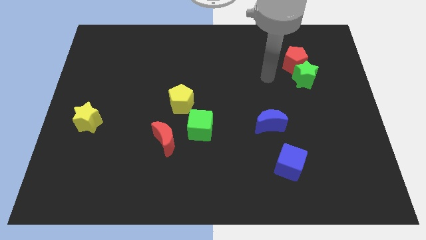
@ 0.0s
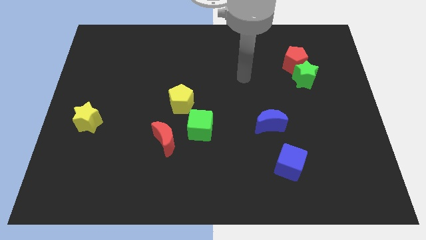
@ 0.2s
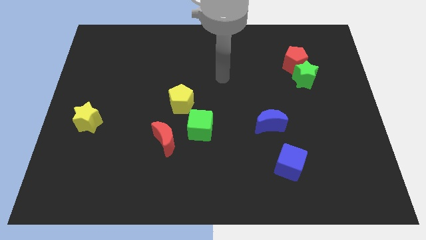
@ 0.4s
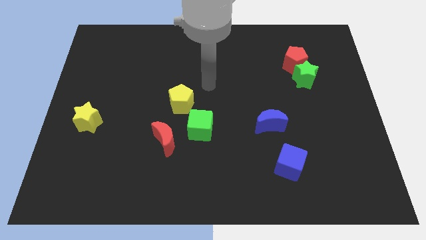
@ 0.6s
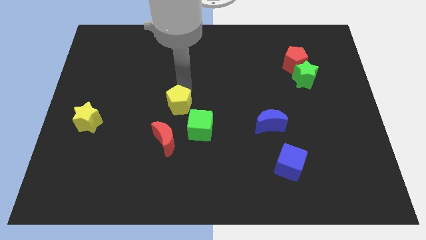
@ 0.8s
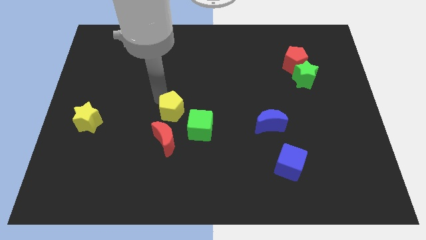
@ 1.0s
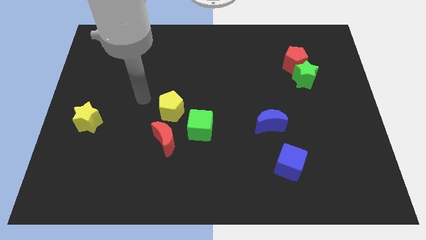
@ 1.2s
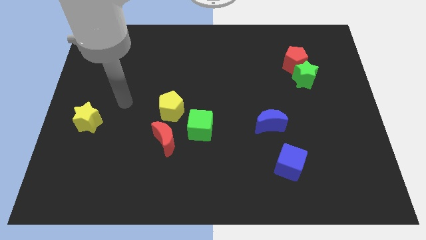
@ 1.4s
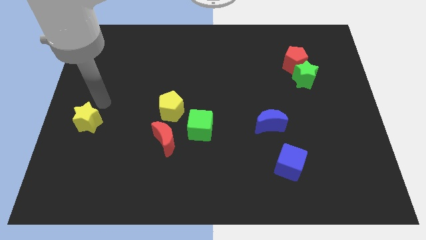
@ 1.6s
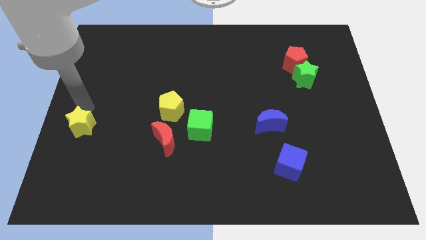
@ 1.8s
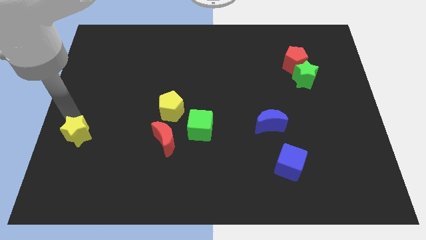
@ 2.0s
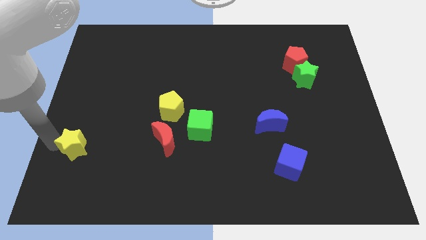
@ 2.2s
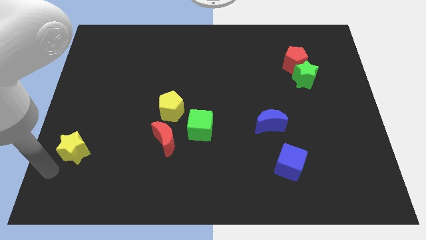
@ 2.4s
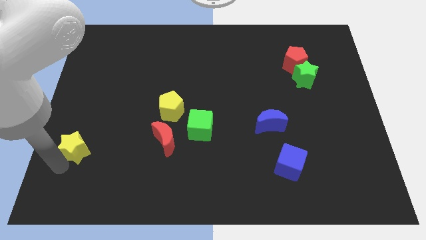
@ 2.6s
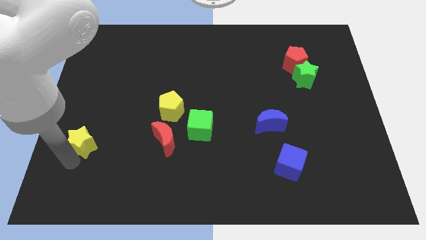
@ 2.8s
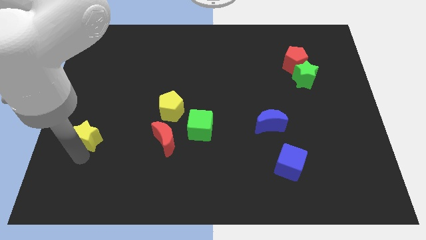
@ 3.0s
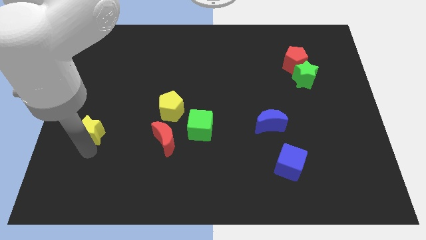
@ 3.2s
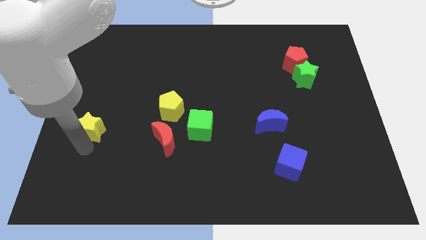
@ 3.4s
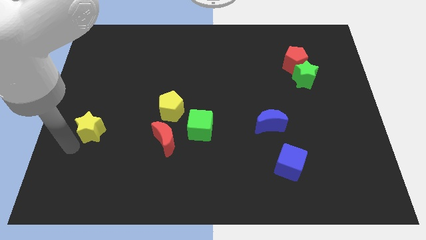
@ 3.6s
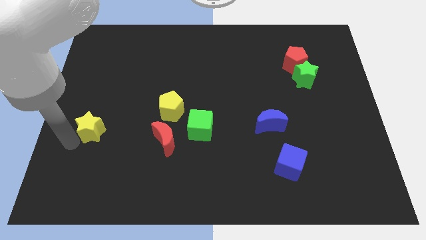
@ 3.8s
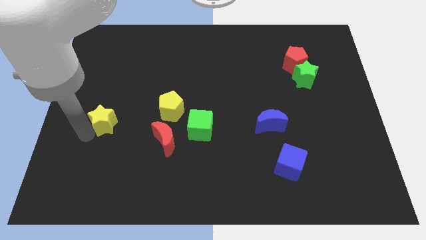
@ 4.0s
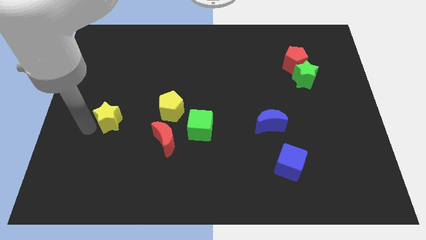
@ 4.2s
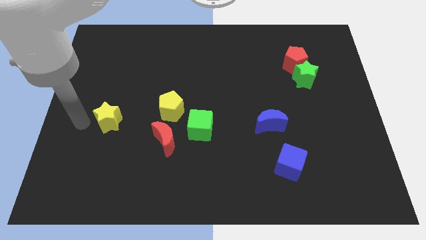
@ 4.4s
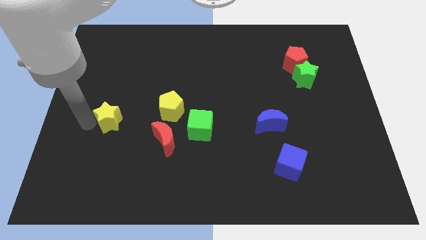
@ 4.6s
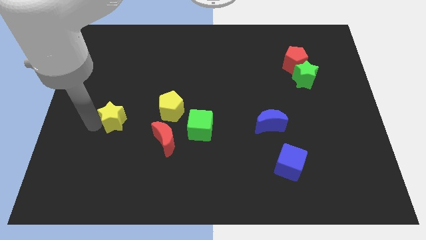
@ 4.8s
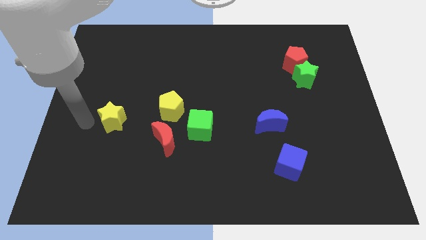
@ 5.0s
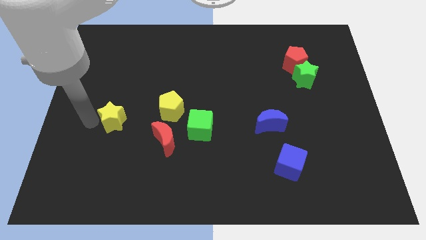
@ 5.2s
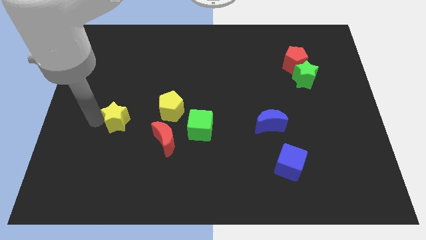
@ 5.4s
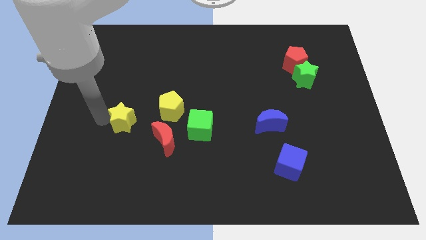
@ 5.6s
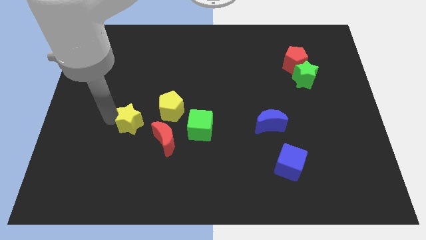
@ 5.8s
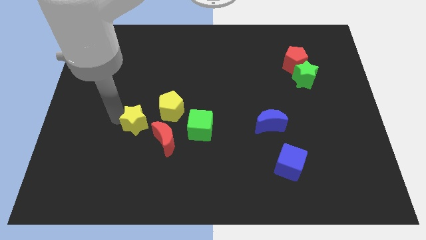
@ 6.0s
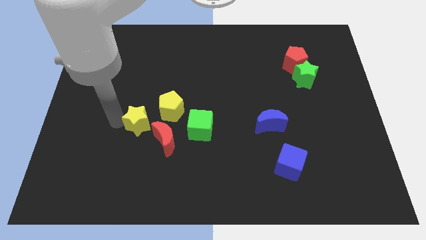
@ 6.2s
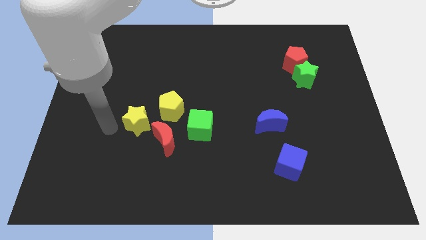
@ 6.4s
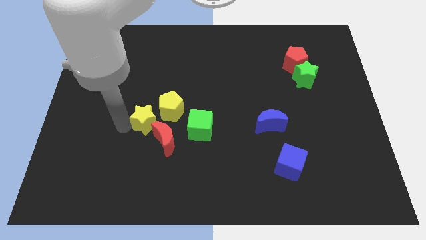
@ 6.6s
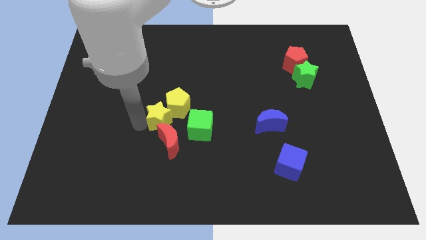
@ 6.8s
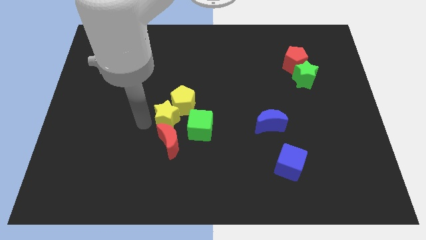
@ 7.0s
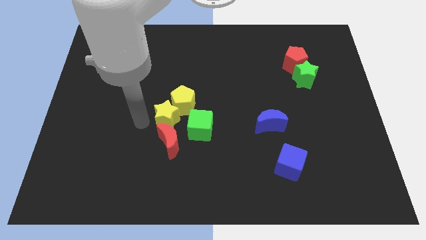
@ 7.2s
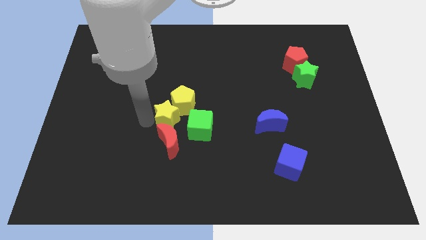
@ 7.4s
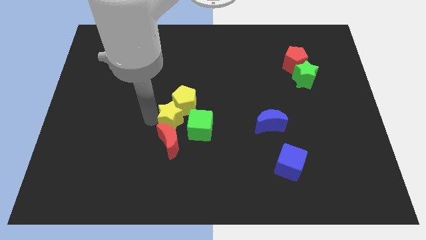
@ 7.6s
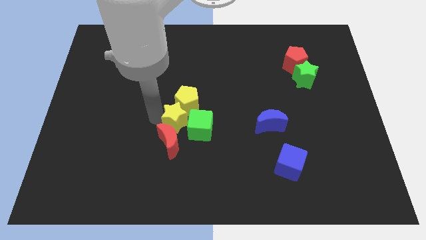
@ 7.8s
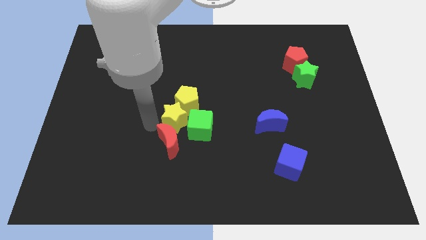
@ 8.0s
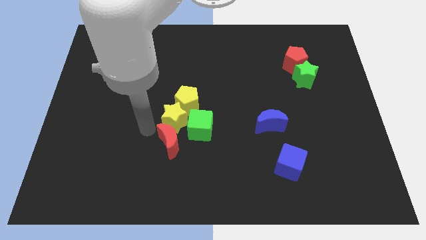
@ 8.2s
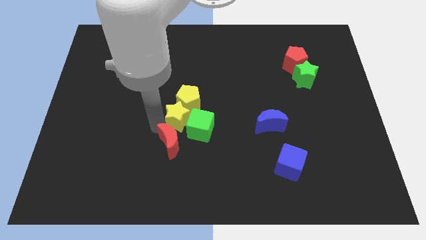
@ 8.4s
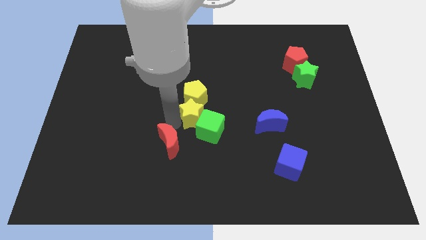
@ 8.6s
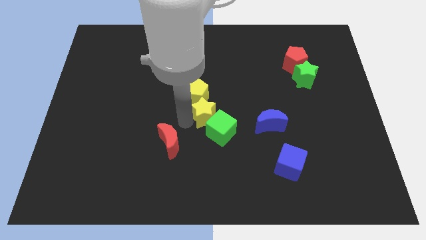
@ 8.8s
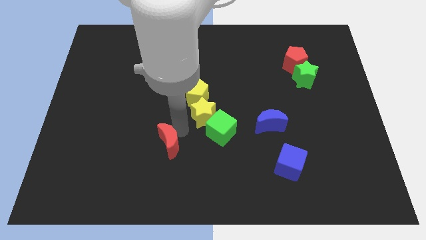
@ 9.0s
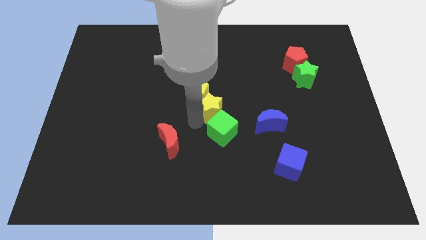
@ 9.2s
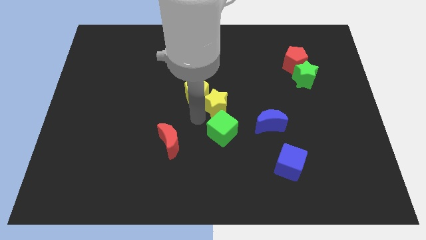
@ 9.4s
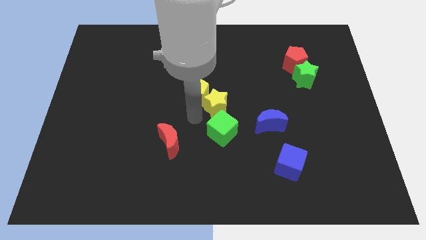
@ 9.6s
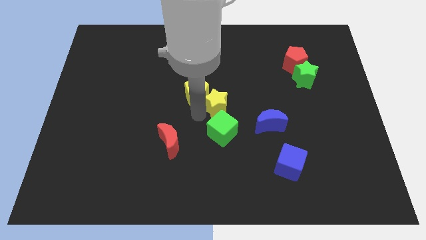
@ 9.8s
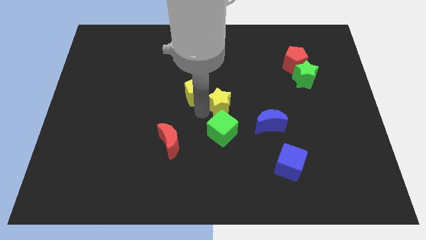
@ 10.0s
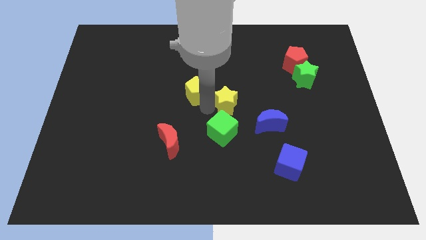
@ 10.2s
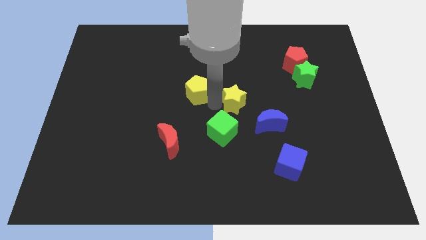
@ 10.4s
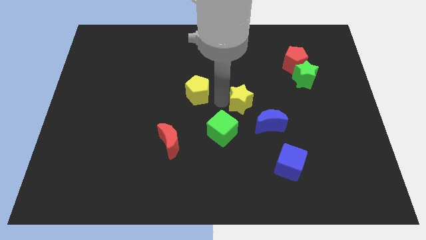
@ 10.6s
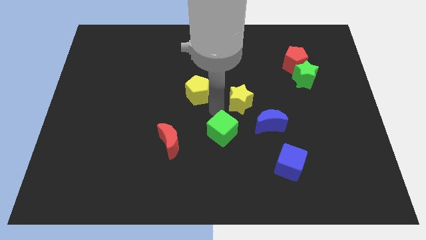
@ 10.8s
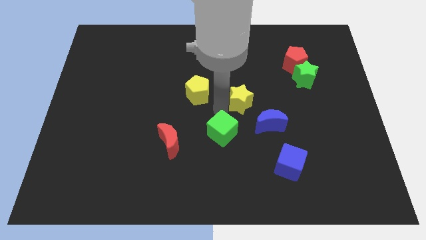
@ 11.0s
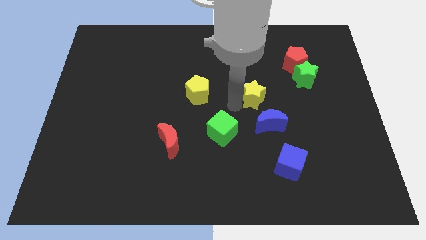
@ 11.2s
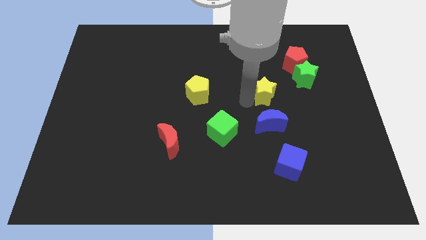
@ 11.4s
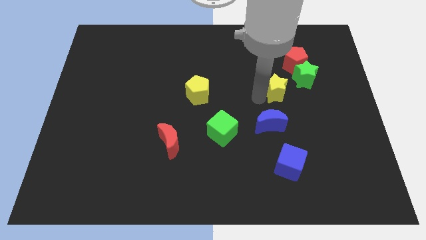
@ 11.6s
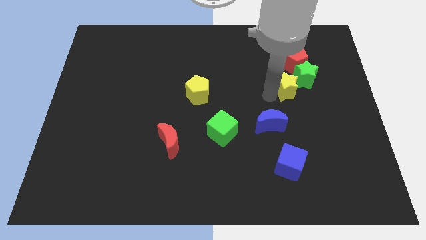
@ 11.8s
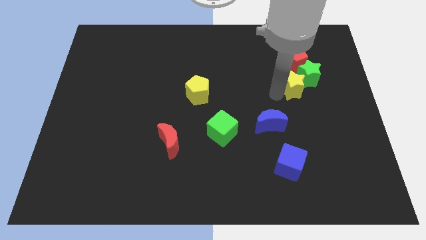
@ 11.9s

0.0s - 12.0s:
put the yellow star close to the green star
